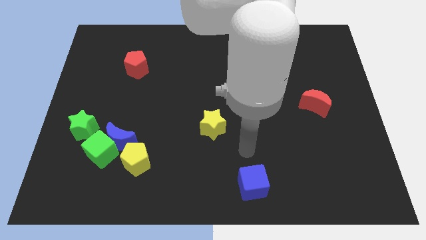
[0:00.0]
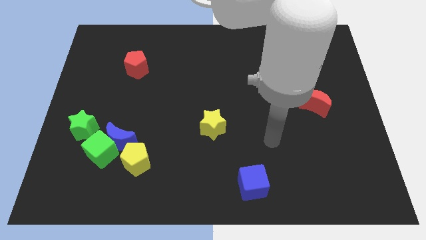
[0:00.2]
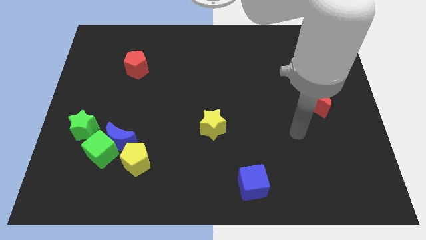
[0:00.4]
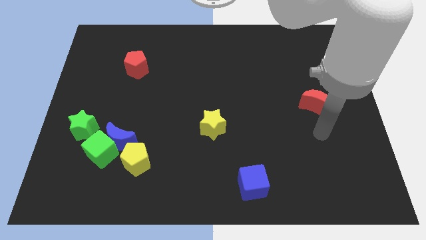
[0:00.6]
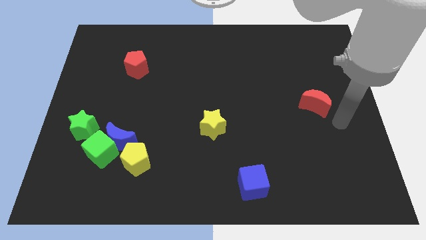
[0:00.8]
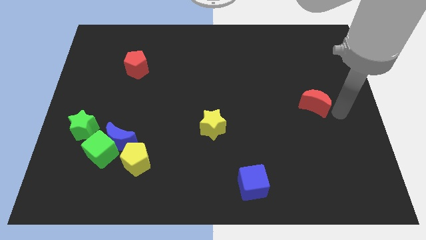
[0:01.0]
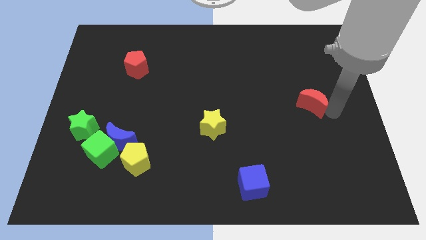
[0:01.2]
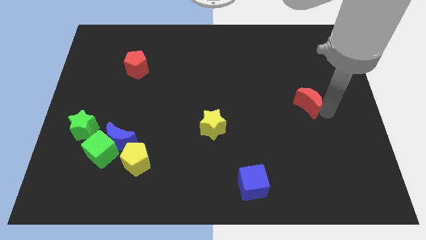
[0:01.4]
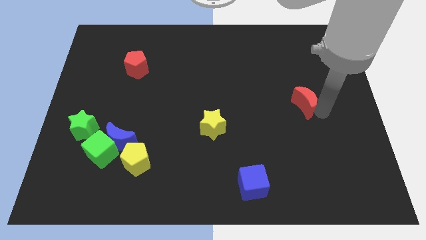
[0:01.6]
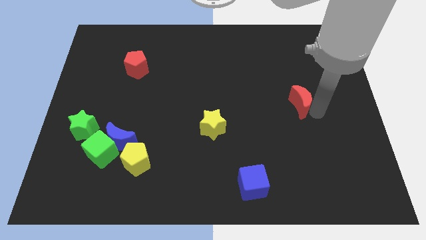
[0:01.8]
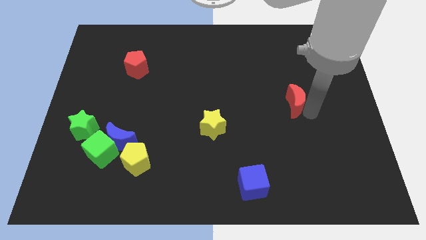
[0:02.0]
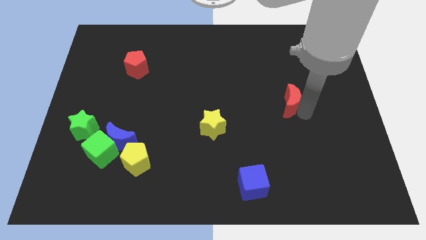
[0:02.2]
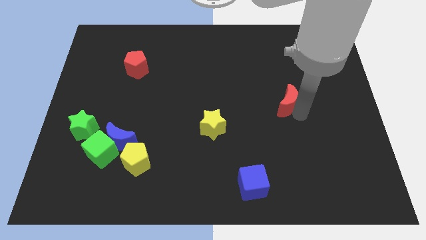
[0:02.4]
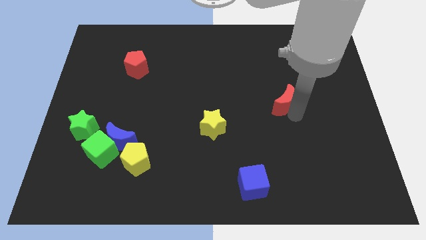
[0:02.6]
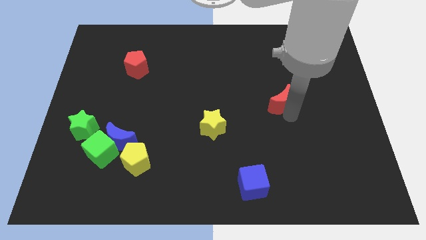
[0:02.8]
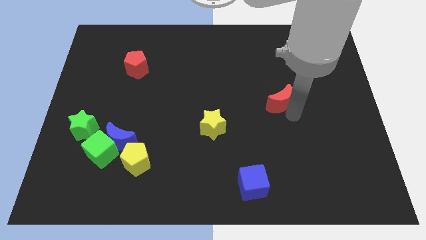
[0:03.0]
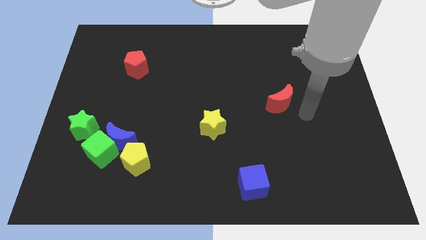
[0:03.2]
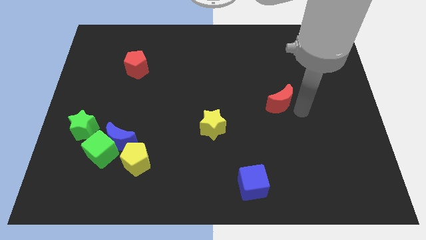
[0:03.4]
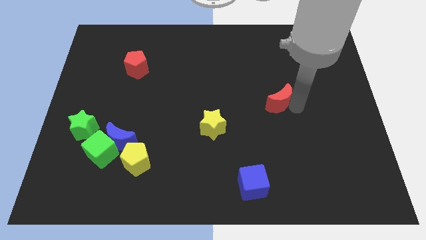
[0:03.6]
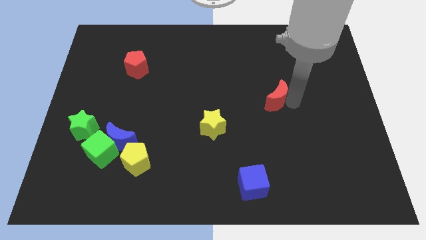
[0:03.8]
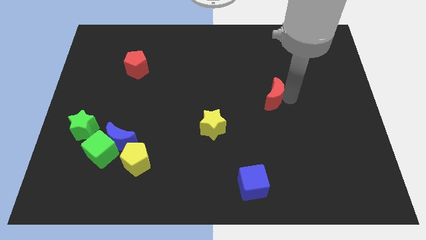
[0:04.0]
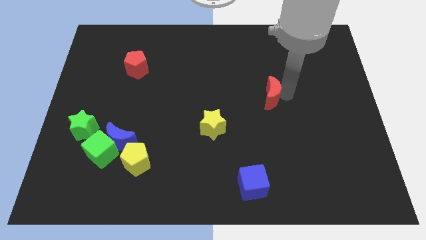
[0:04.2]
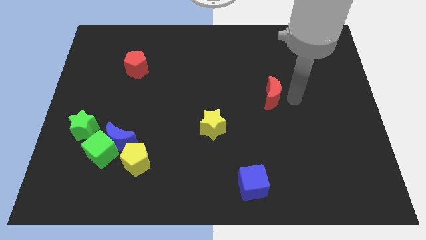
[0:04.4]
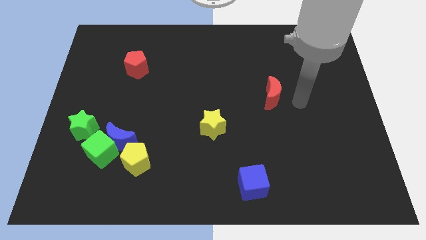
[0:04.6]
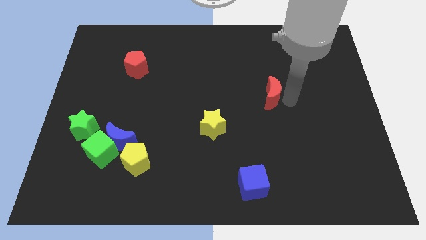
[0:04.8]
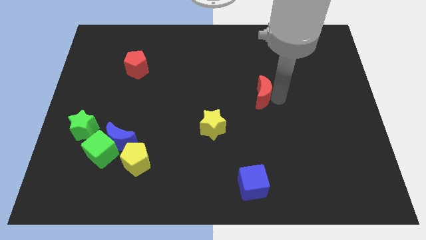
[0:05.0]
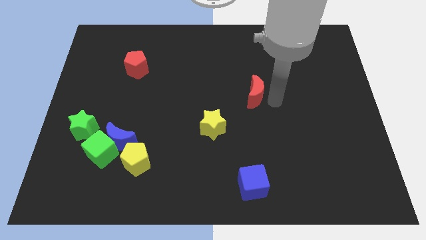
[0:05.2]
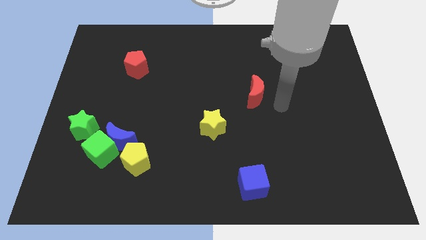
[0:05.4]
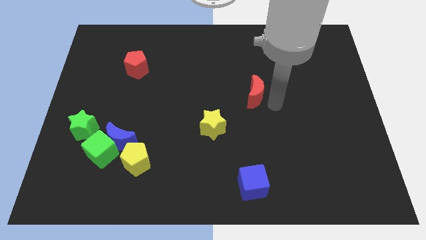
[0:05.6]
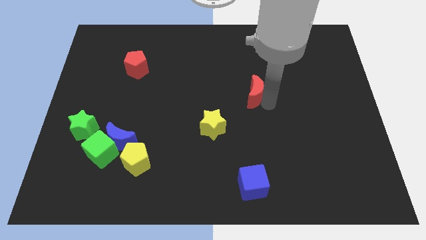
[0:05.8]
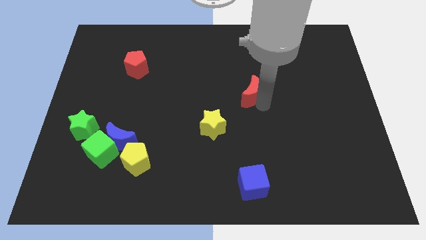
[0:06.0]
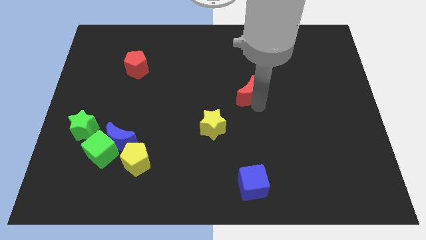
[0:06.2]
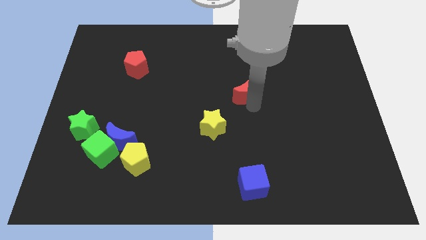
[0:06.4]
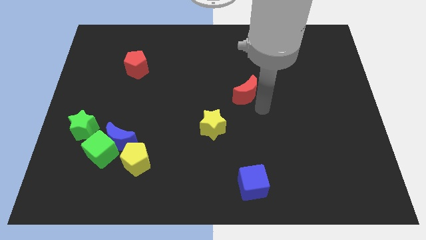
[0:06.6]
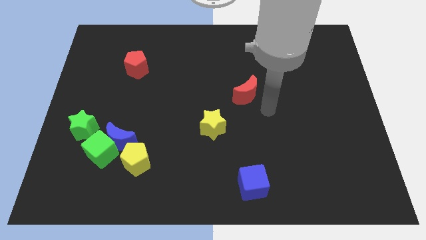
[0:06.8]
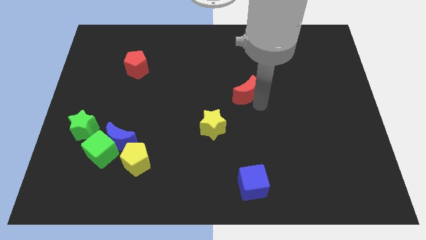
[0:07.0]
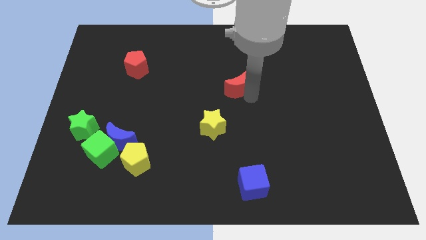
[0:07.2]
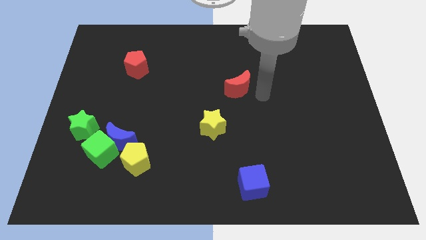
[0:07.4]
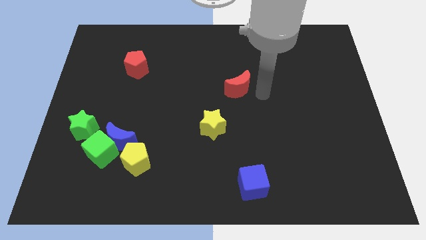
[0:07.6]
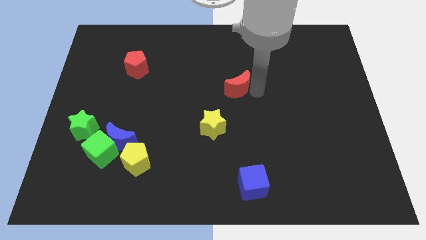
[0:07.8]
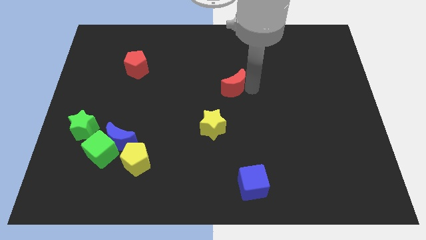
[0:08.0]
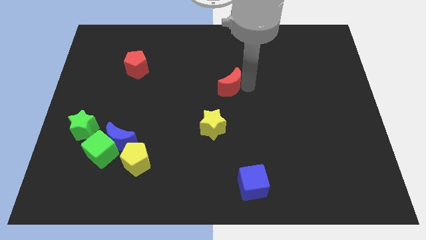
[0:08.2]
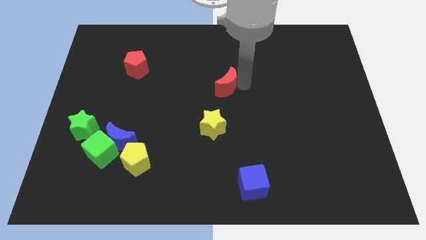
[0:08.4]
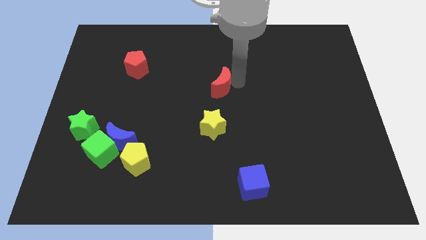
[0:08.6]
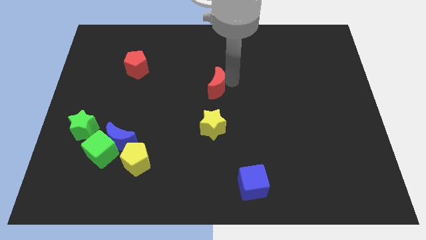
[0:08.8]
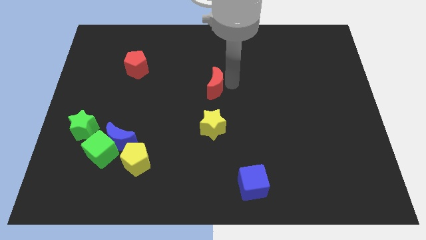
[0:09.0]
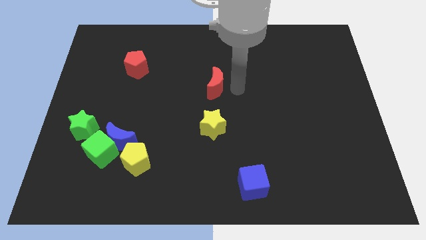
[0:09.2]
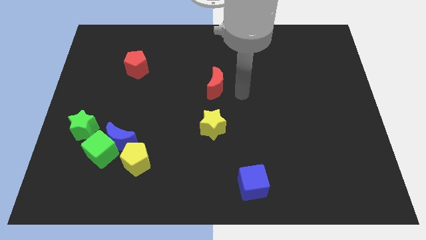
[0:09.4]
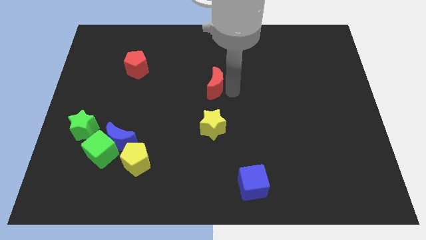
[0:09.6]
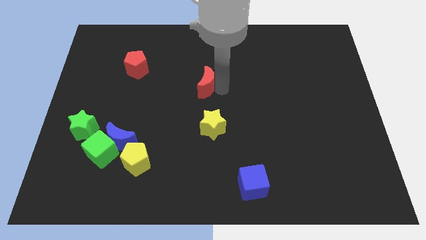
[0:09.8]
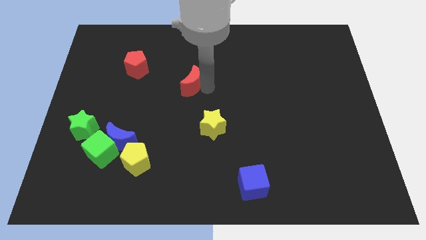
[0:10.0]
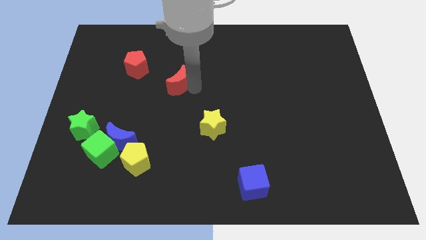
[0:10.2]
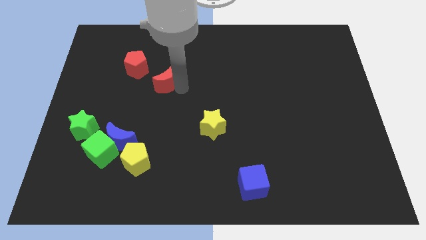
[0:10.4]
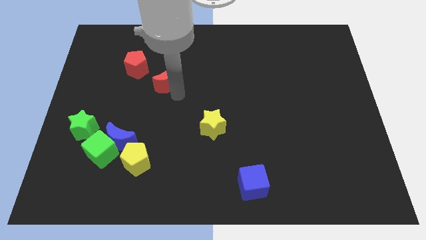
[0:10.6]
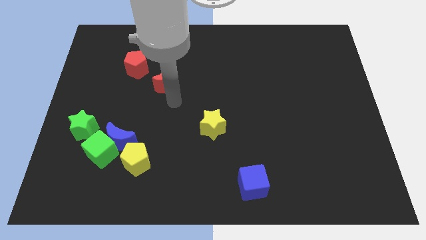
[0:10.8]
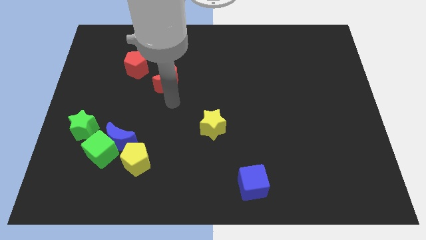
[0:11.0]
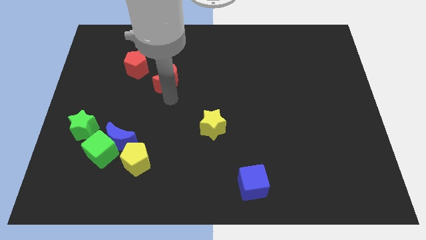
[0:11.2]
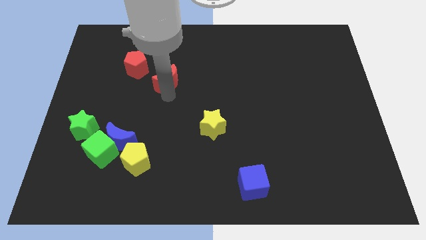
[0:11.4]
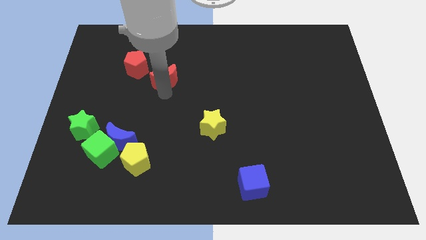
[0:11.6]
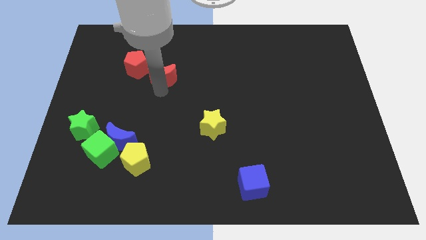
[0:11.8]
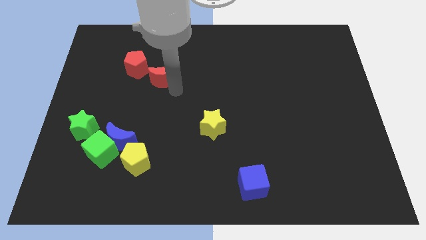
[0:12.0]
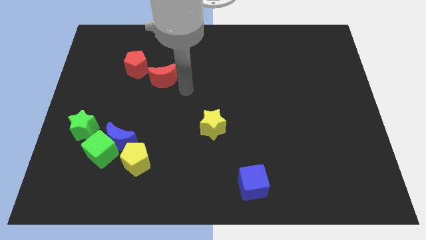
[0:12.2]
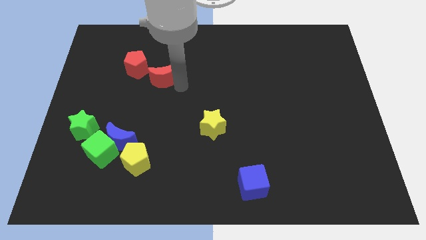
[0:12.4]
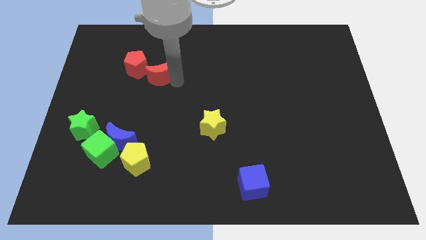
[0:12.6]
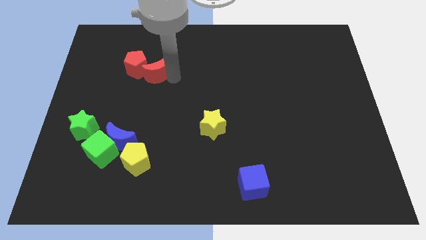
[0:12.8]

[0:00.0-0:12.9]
slide the red moon close to the red pentagon
